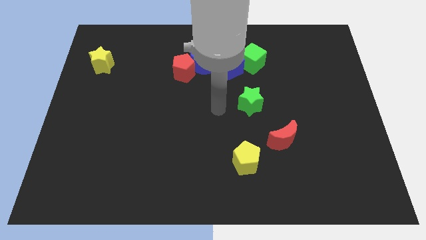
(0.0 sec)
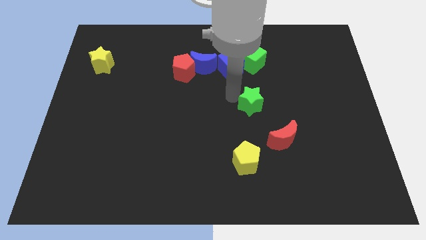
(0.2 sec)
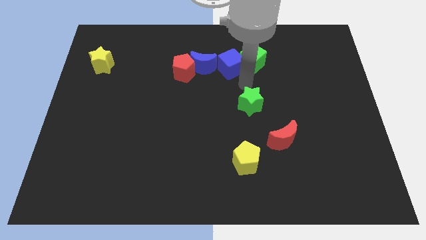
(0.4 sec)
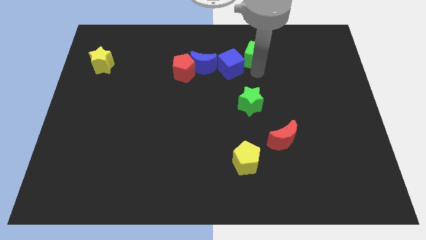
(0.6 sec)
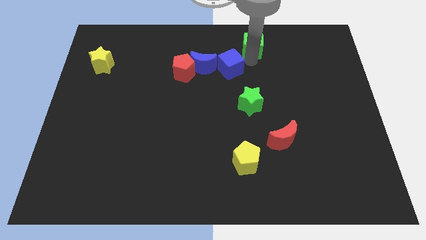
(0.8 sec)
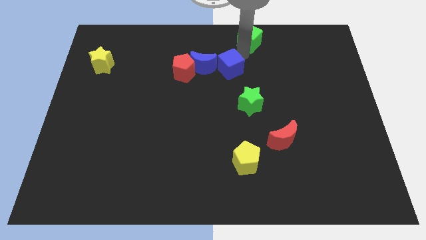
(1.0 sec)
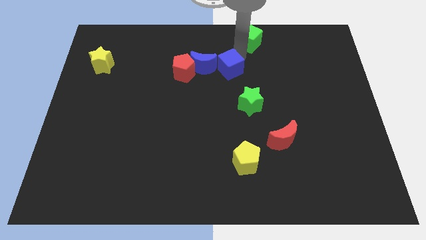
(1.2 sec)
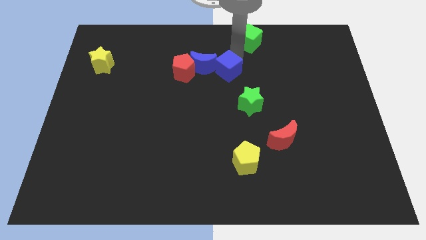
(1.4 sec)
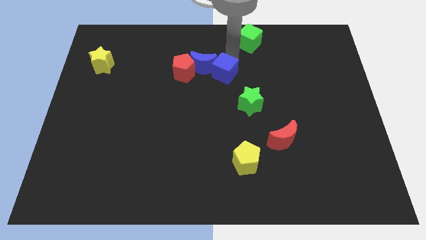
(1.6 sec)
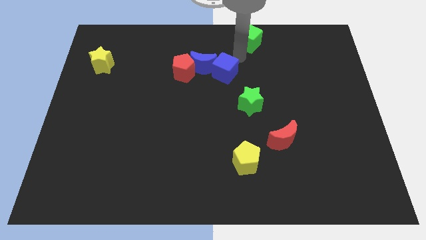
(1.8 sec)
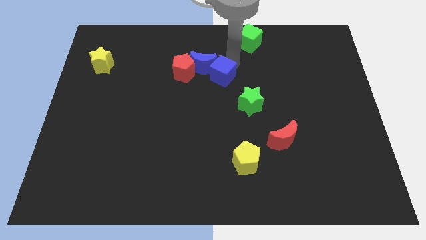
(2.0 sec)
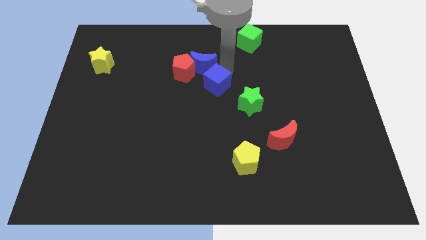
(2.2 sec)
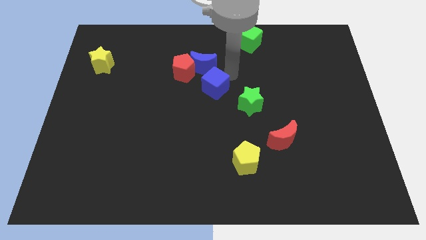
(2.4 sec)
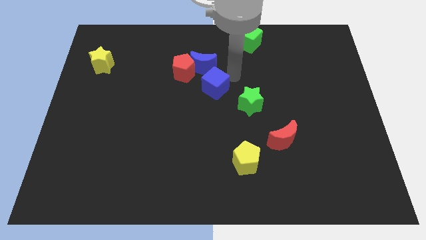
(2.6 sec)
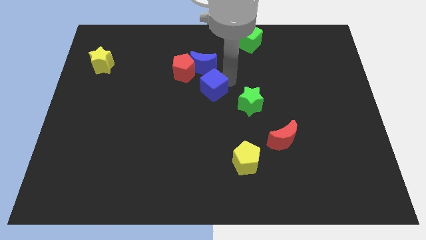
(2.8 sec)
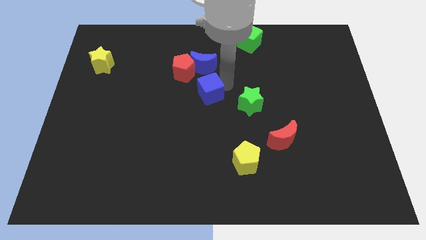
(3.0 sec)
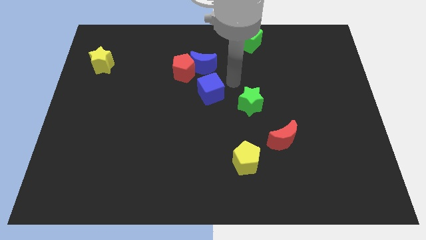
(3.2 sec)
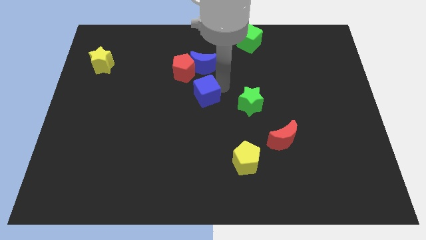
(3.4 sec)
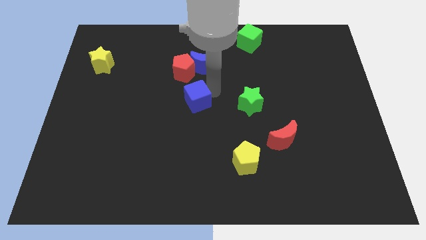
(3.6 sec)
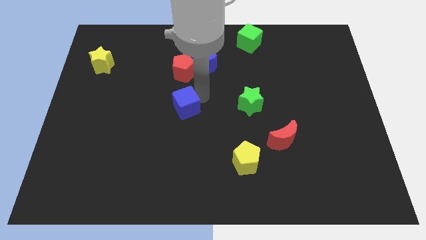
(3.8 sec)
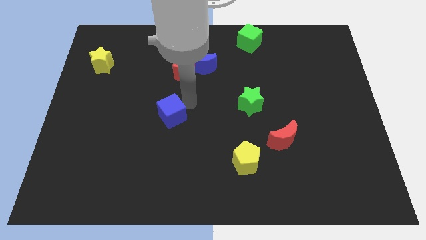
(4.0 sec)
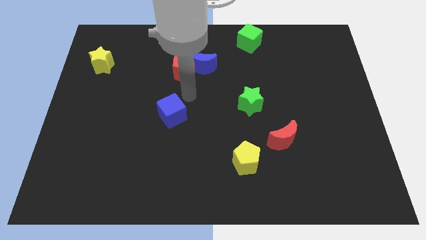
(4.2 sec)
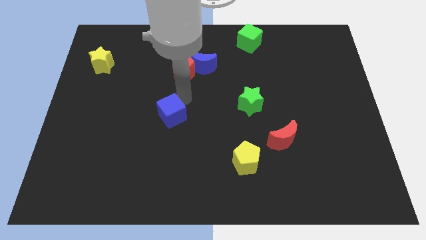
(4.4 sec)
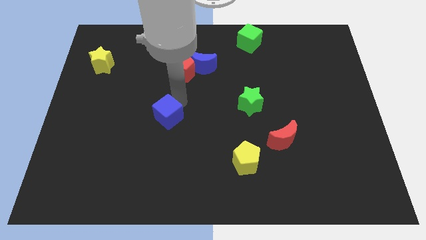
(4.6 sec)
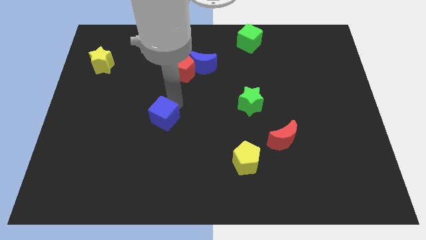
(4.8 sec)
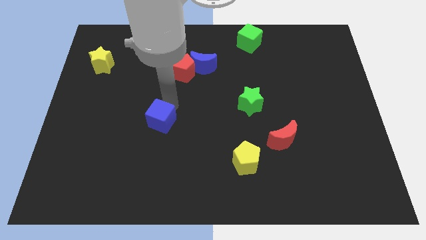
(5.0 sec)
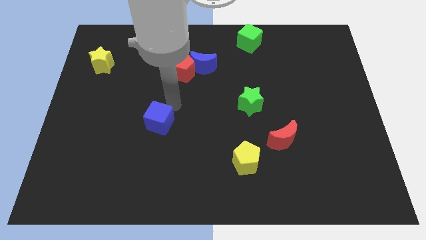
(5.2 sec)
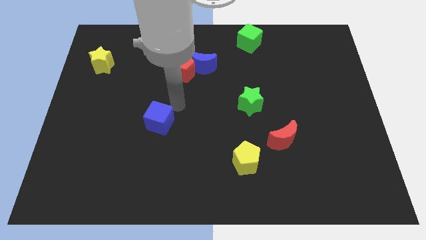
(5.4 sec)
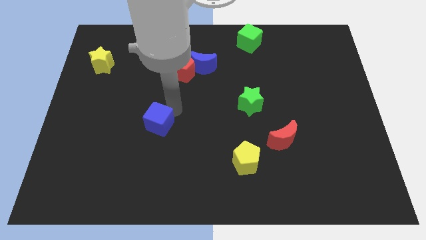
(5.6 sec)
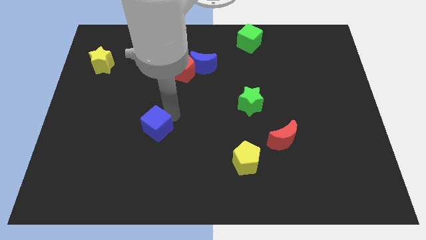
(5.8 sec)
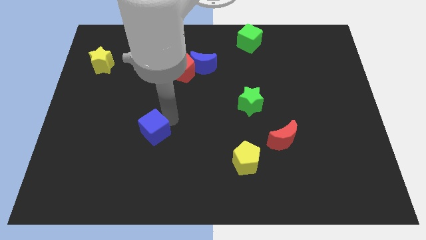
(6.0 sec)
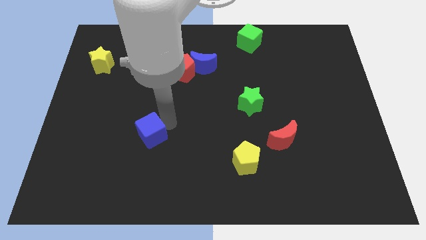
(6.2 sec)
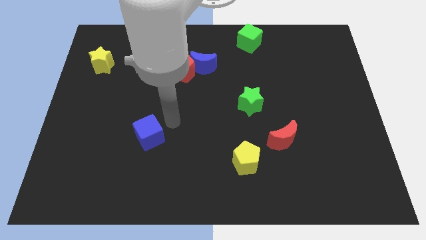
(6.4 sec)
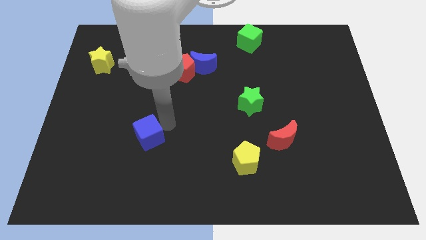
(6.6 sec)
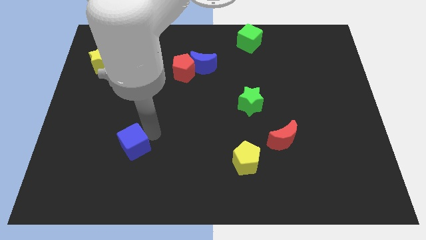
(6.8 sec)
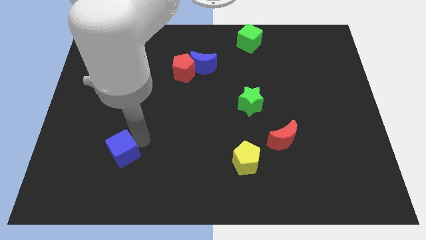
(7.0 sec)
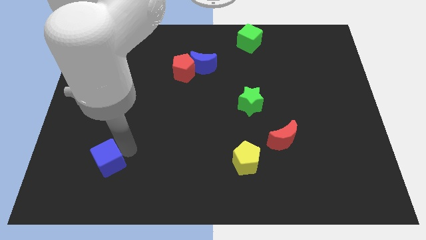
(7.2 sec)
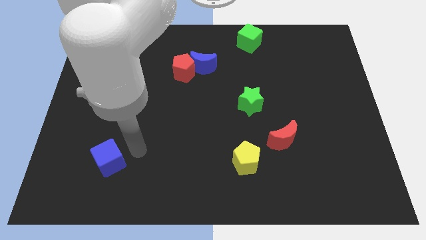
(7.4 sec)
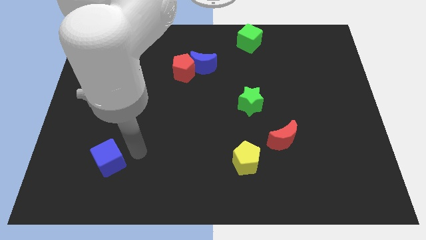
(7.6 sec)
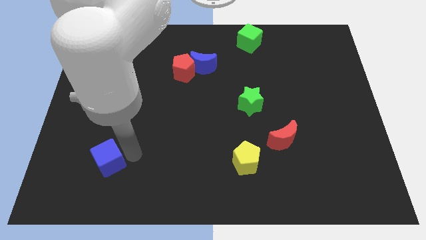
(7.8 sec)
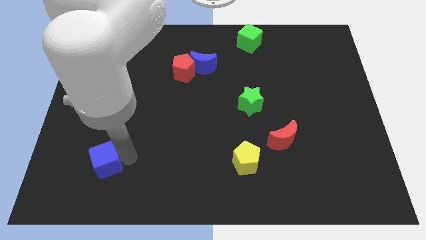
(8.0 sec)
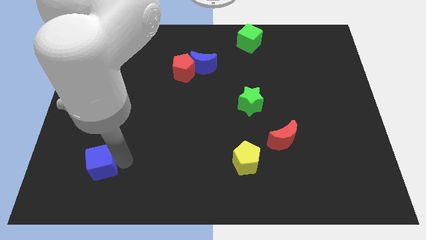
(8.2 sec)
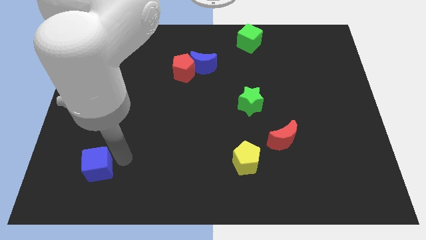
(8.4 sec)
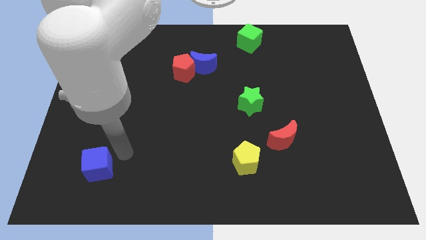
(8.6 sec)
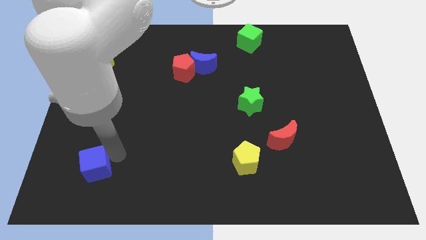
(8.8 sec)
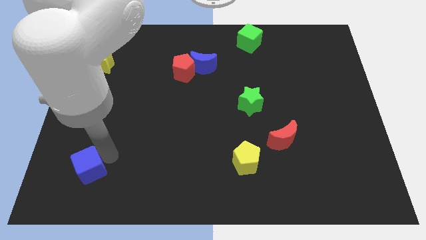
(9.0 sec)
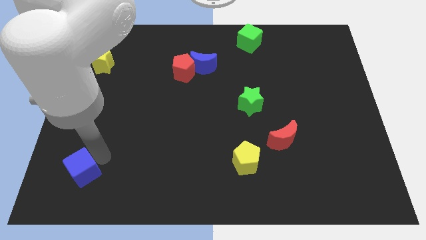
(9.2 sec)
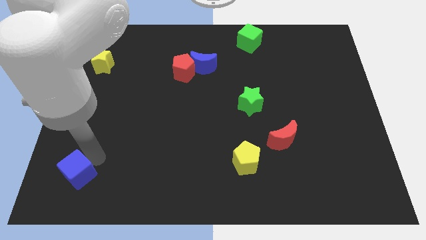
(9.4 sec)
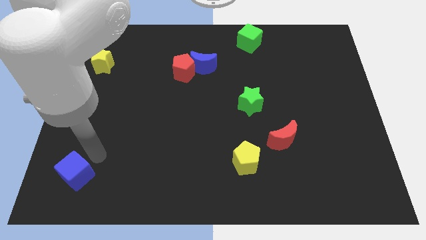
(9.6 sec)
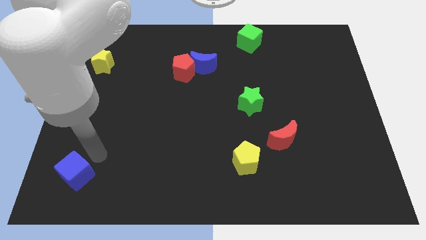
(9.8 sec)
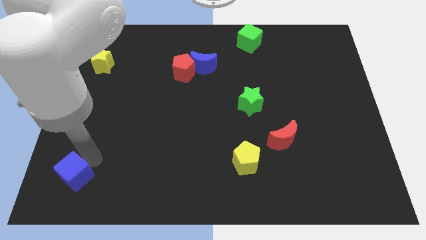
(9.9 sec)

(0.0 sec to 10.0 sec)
put the blue cube to the bottom left of the board

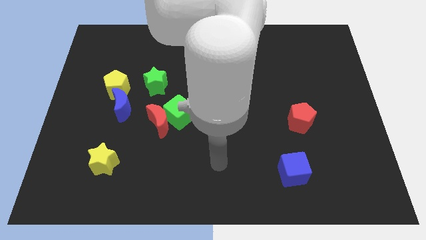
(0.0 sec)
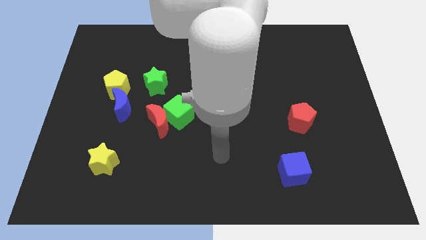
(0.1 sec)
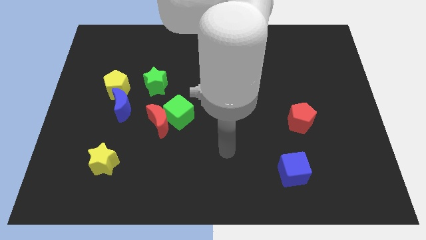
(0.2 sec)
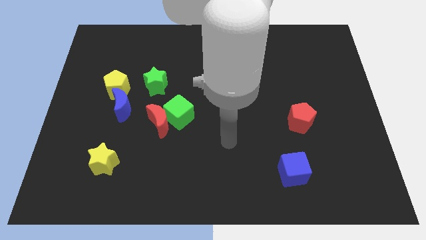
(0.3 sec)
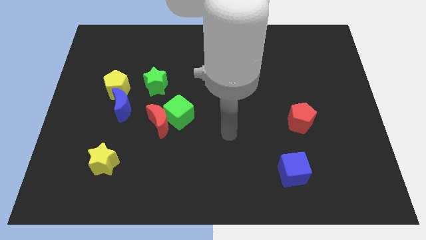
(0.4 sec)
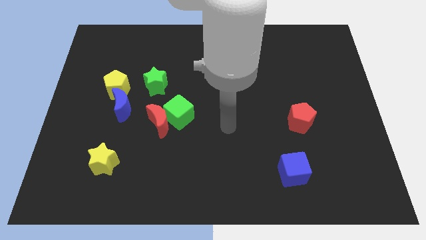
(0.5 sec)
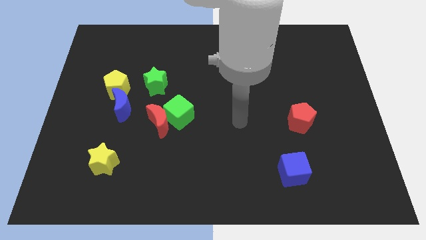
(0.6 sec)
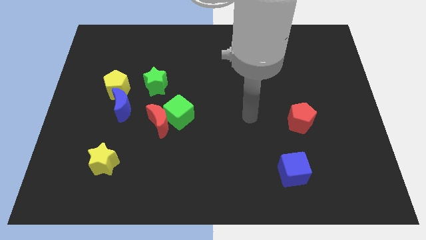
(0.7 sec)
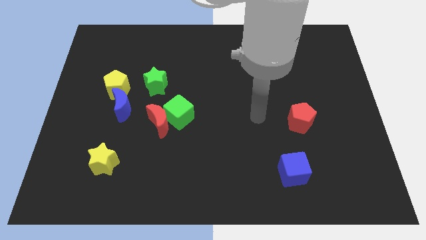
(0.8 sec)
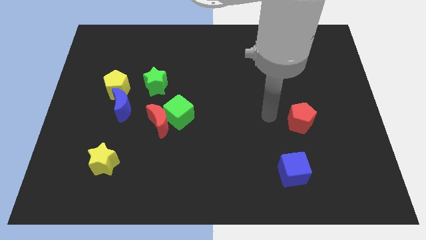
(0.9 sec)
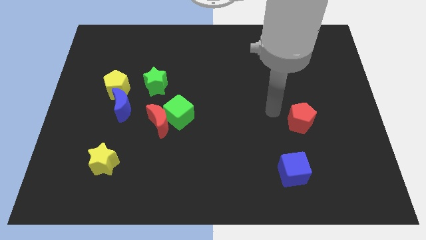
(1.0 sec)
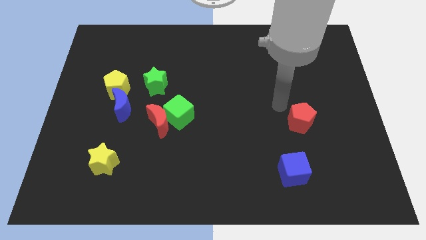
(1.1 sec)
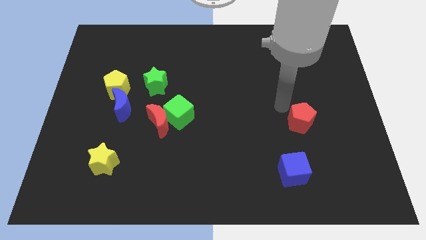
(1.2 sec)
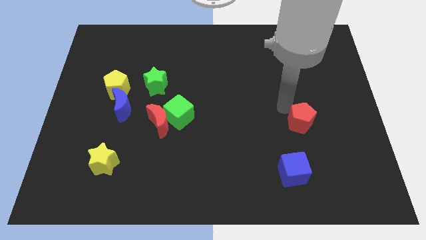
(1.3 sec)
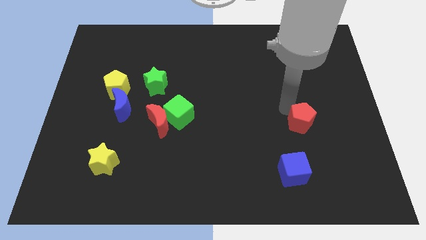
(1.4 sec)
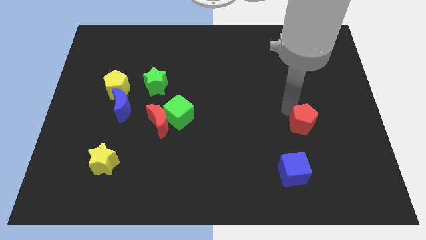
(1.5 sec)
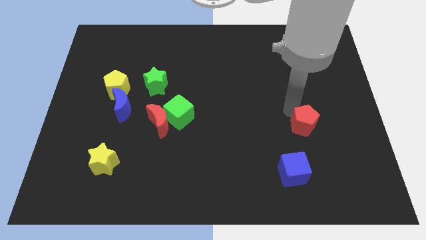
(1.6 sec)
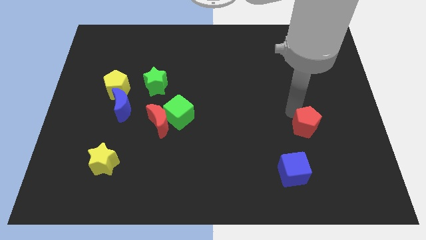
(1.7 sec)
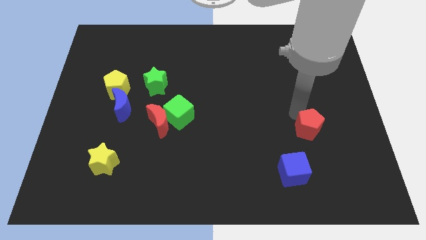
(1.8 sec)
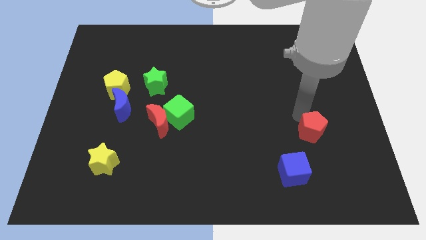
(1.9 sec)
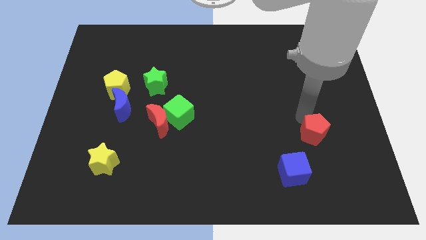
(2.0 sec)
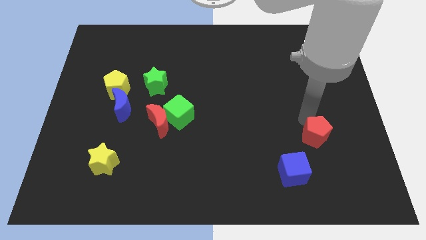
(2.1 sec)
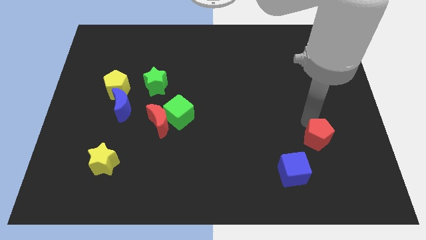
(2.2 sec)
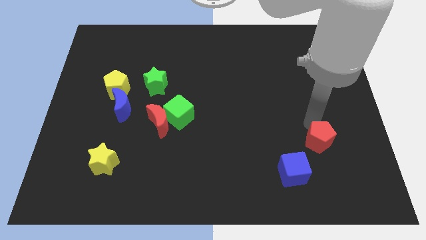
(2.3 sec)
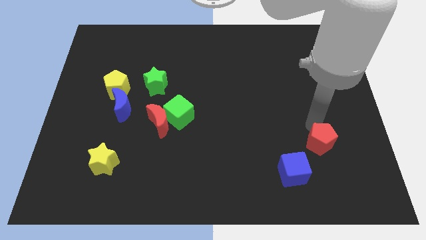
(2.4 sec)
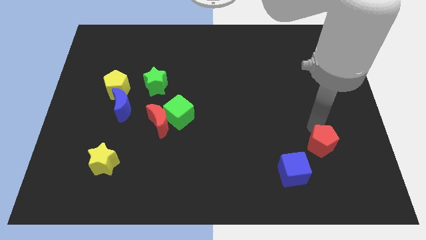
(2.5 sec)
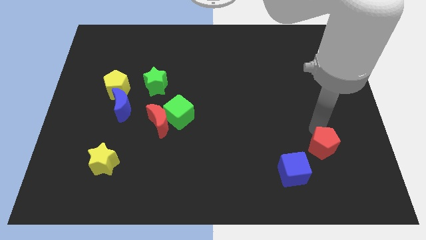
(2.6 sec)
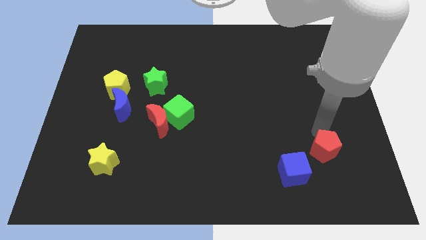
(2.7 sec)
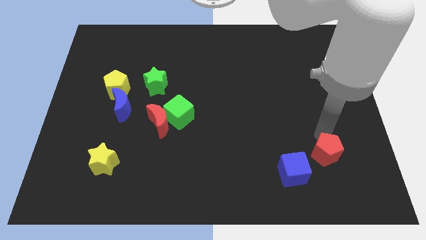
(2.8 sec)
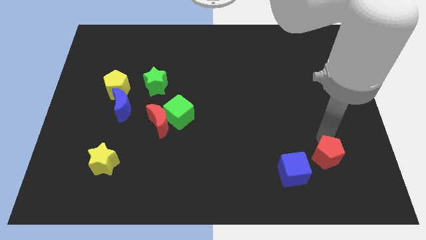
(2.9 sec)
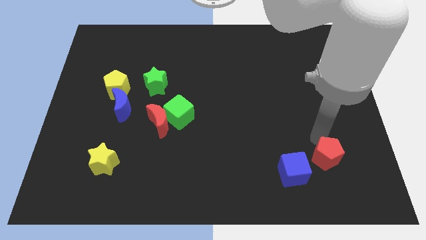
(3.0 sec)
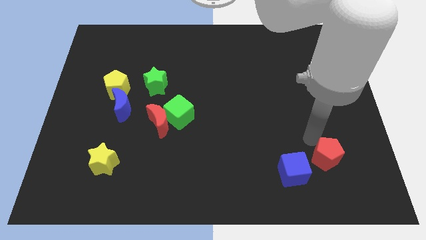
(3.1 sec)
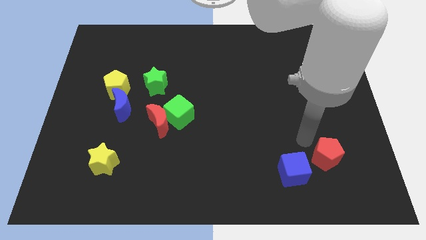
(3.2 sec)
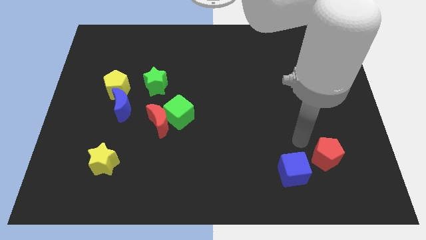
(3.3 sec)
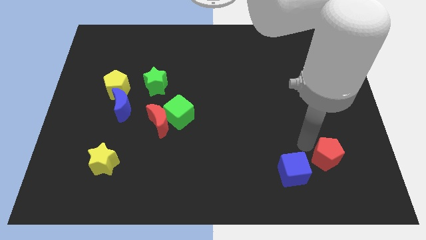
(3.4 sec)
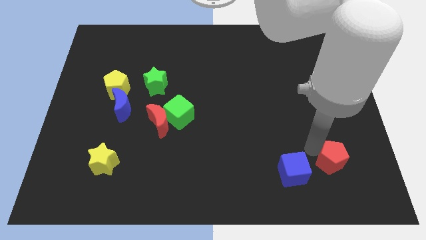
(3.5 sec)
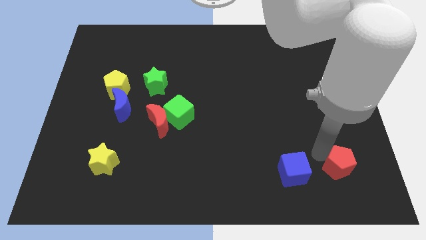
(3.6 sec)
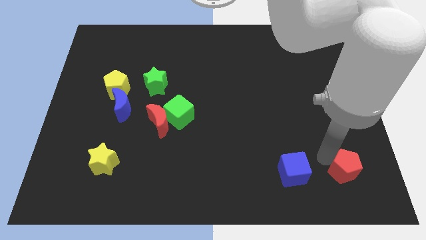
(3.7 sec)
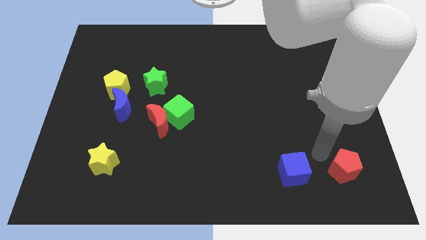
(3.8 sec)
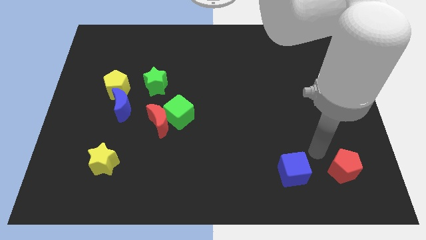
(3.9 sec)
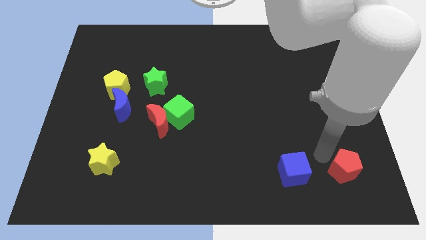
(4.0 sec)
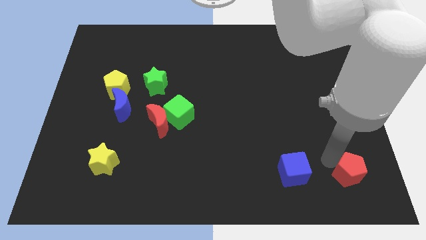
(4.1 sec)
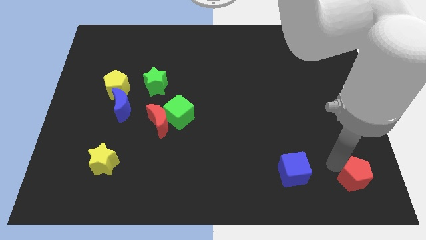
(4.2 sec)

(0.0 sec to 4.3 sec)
put the red pentagon to the bottom right of the board
